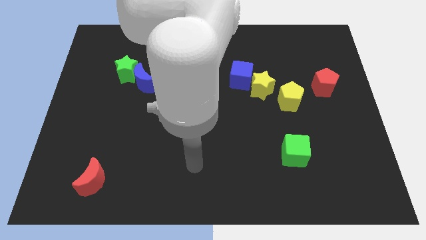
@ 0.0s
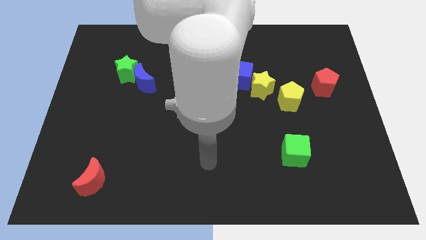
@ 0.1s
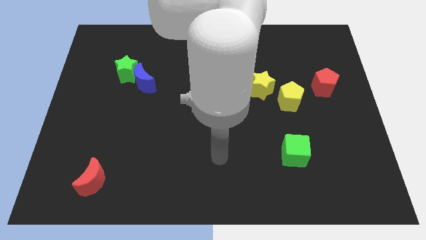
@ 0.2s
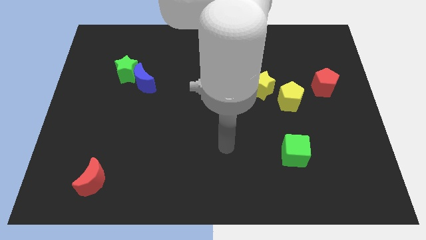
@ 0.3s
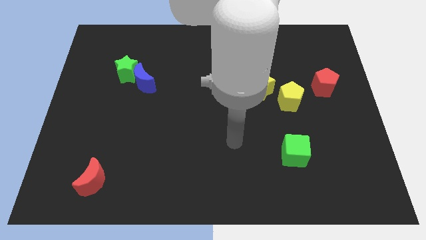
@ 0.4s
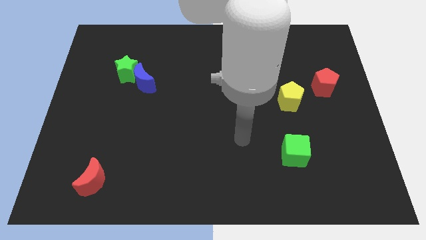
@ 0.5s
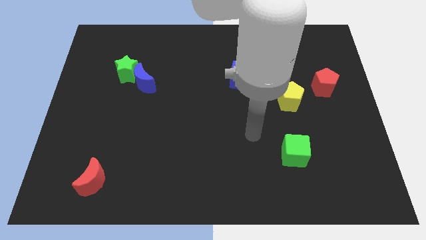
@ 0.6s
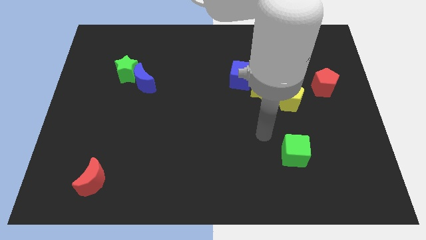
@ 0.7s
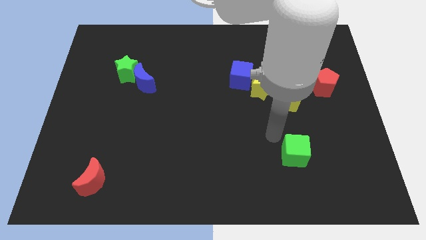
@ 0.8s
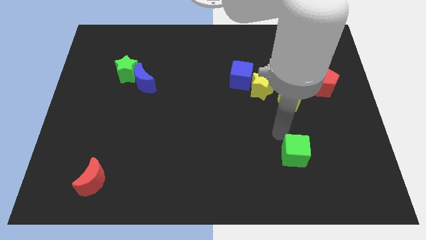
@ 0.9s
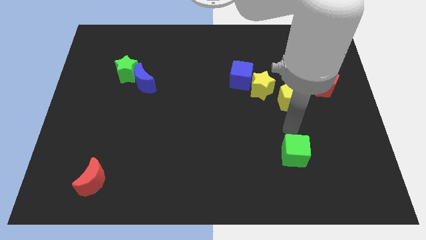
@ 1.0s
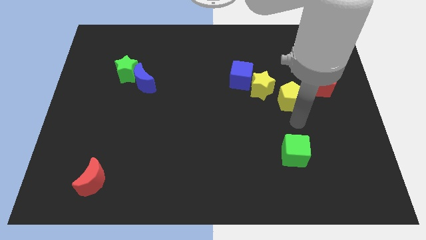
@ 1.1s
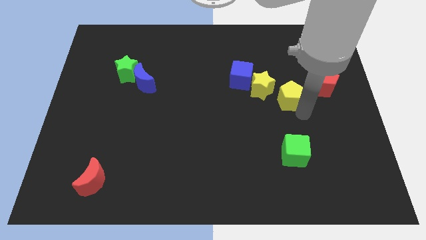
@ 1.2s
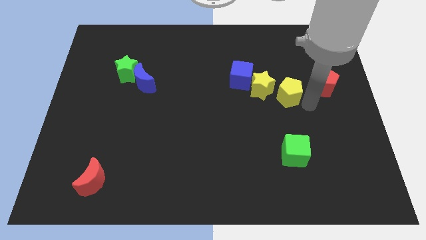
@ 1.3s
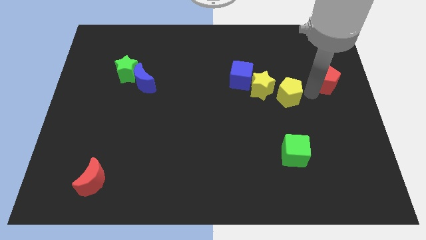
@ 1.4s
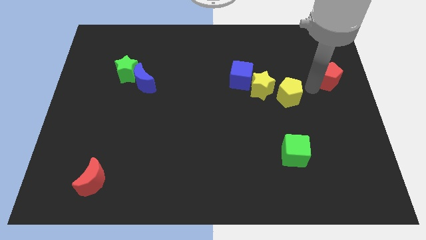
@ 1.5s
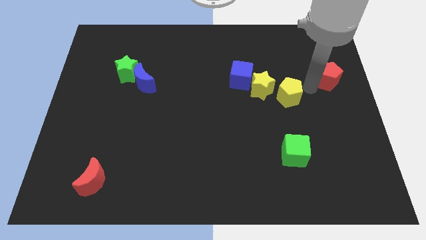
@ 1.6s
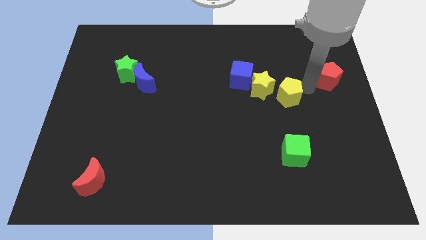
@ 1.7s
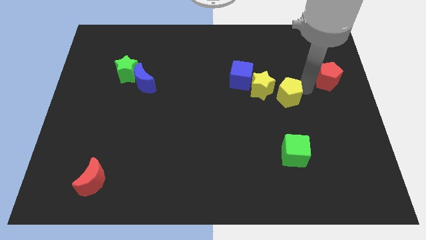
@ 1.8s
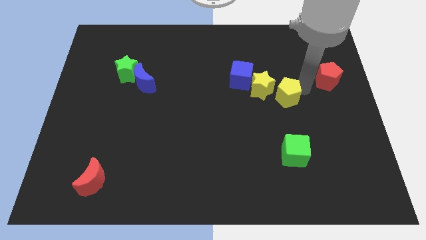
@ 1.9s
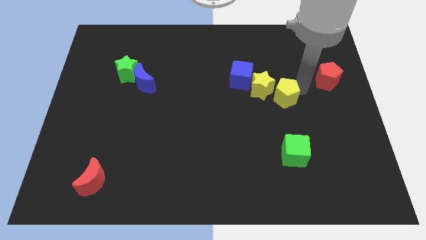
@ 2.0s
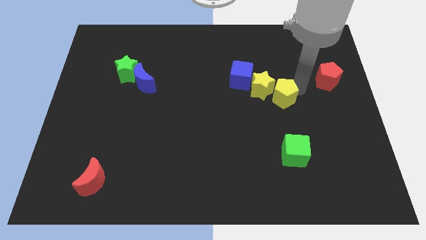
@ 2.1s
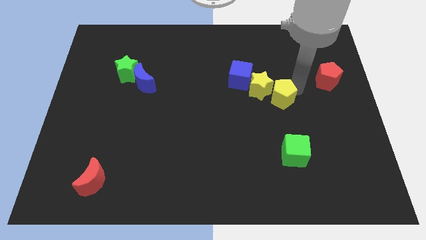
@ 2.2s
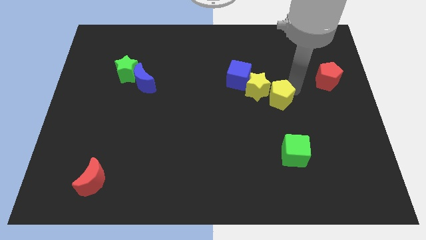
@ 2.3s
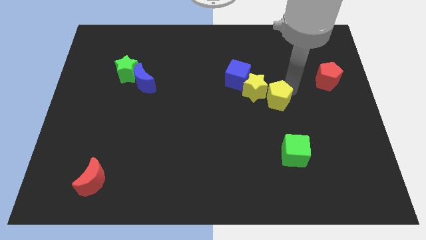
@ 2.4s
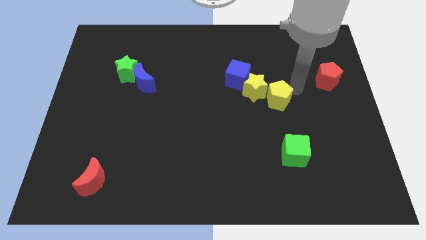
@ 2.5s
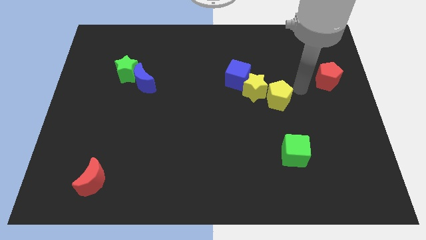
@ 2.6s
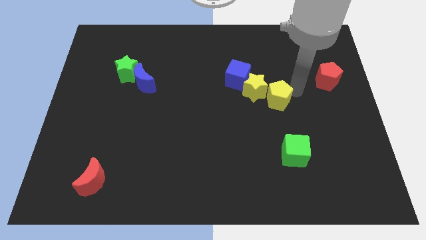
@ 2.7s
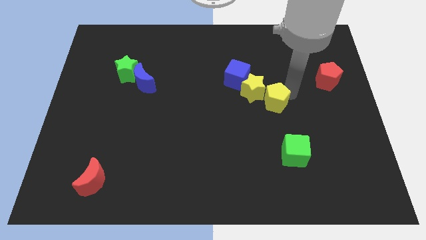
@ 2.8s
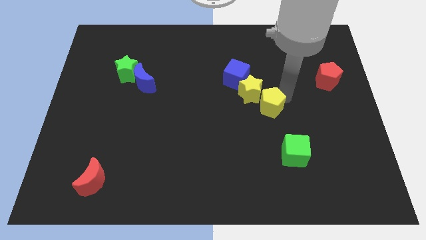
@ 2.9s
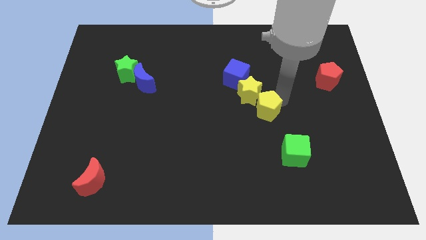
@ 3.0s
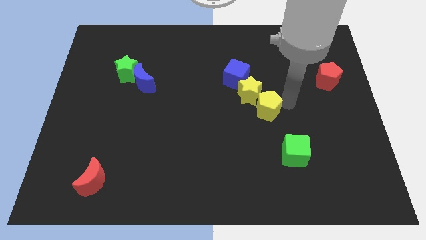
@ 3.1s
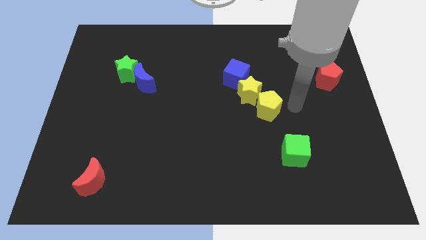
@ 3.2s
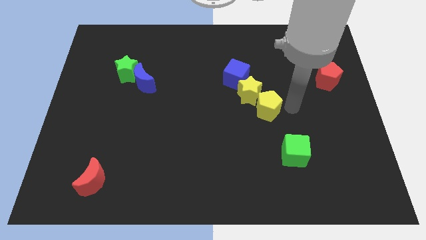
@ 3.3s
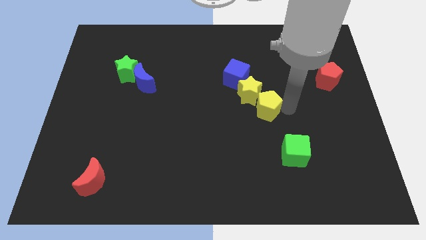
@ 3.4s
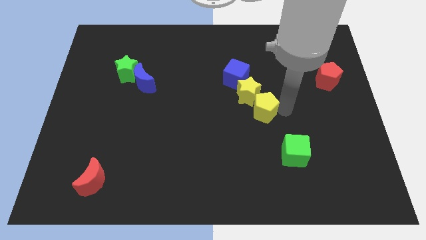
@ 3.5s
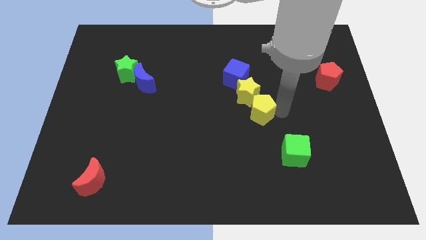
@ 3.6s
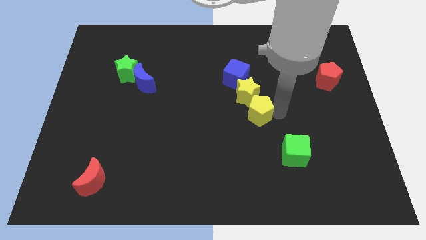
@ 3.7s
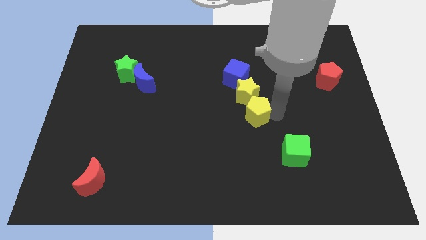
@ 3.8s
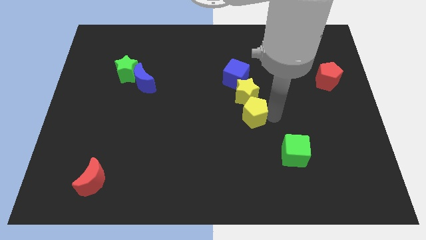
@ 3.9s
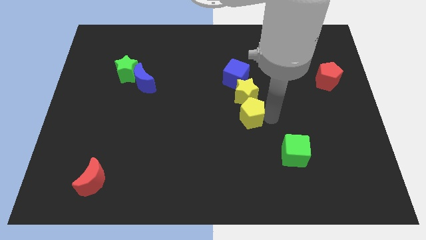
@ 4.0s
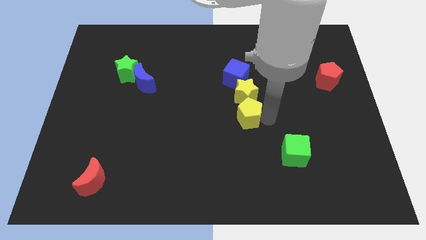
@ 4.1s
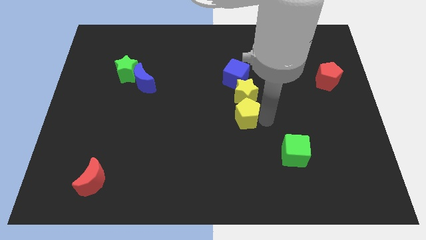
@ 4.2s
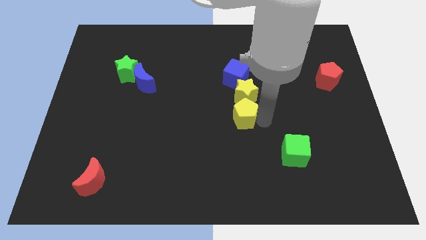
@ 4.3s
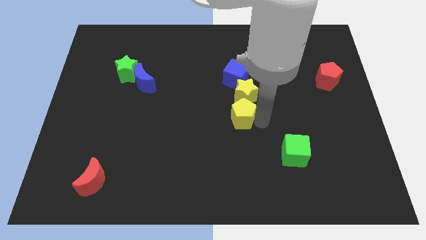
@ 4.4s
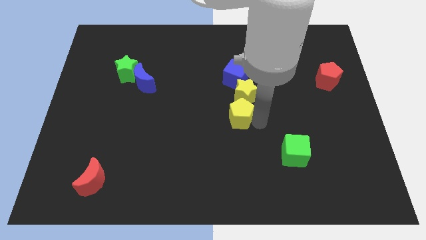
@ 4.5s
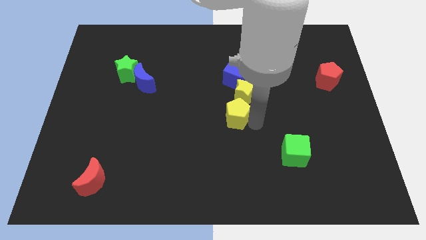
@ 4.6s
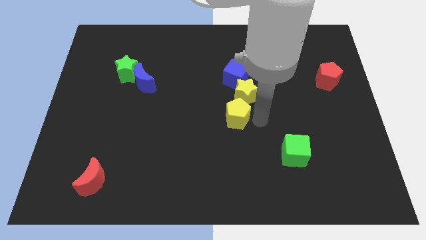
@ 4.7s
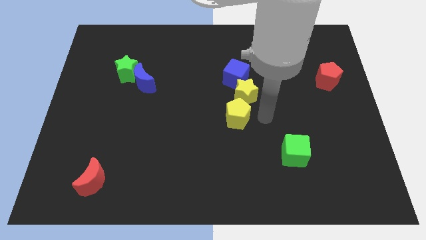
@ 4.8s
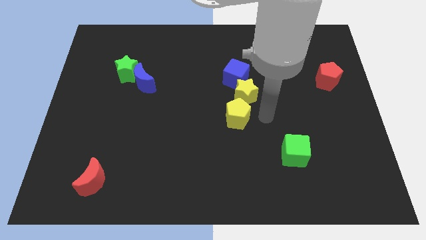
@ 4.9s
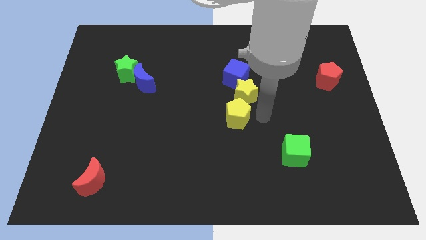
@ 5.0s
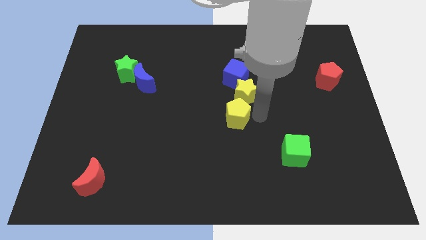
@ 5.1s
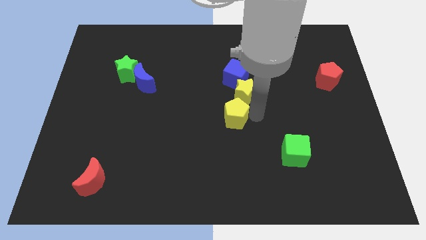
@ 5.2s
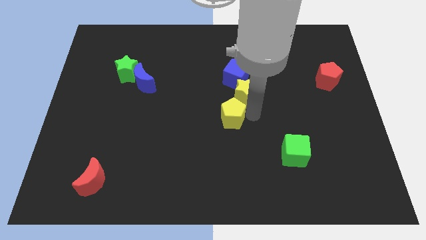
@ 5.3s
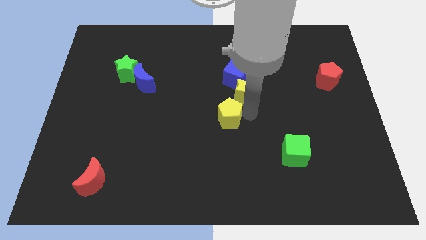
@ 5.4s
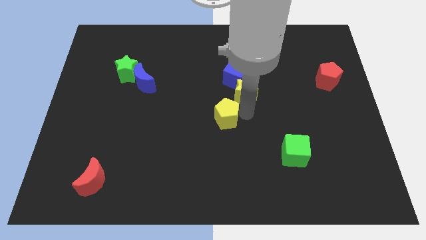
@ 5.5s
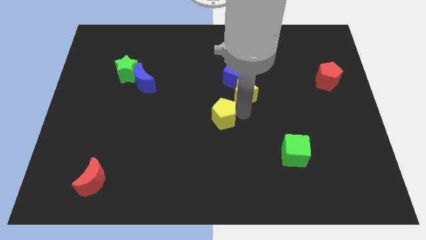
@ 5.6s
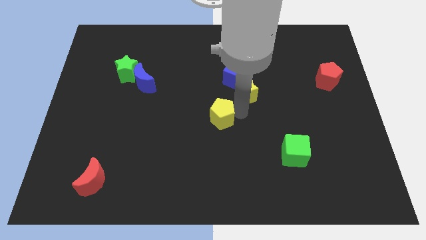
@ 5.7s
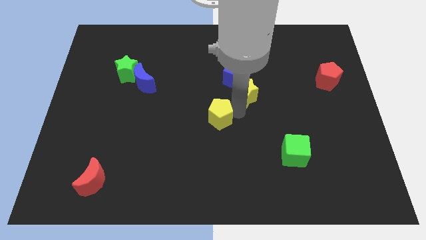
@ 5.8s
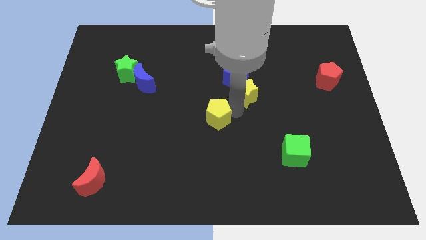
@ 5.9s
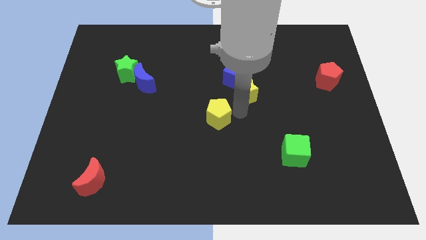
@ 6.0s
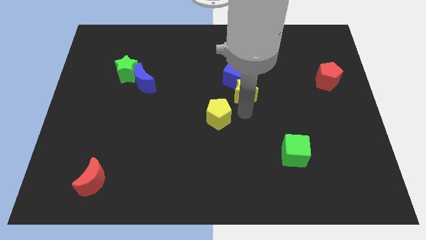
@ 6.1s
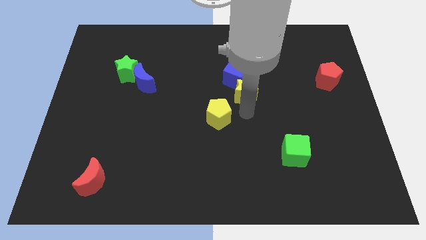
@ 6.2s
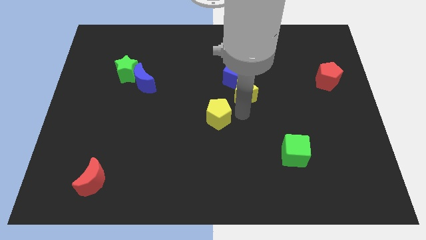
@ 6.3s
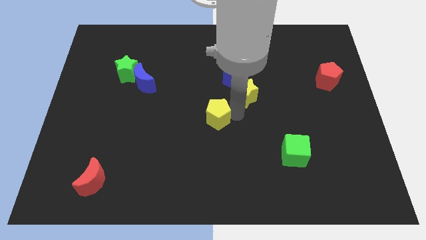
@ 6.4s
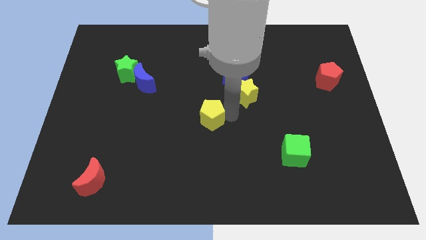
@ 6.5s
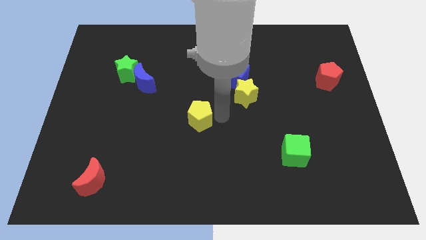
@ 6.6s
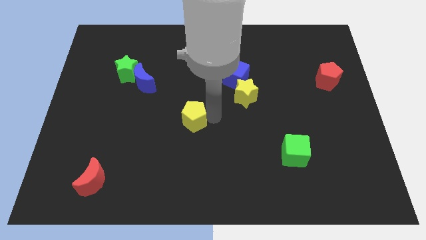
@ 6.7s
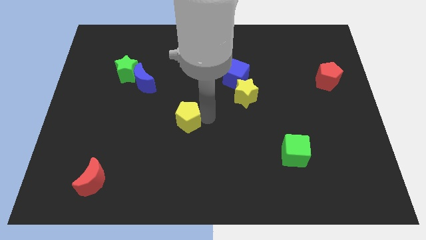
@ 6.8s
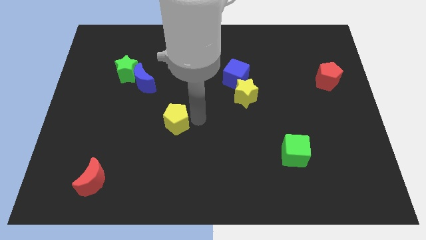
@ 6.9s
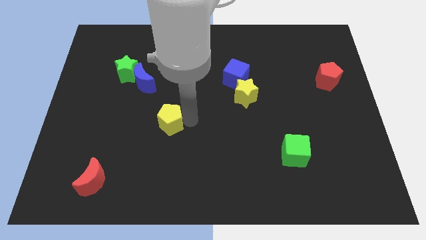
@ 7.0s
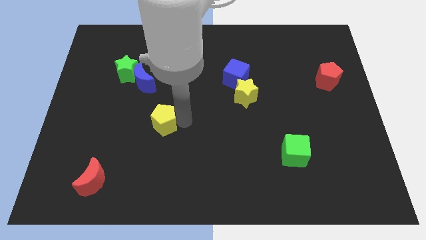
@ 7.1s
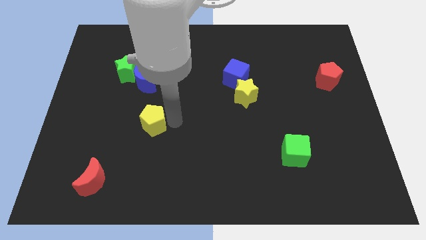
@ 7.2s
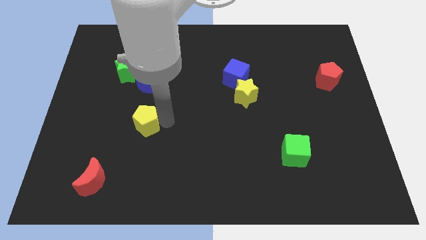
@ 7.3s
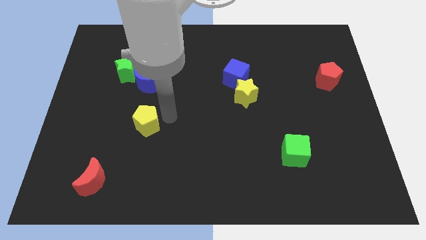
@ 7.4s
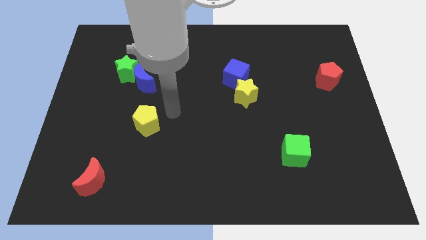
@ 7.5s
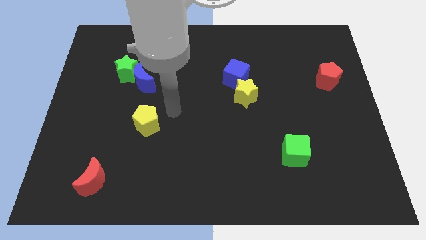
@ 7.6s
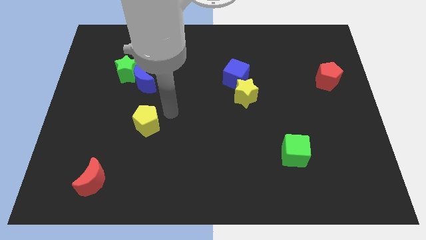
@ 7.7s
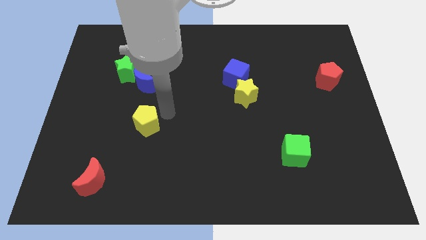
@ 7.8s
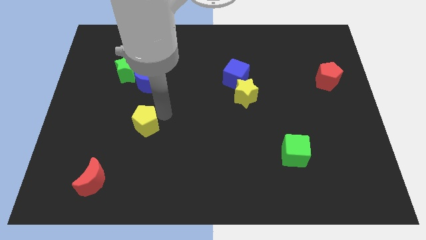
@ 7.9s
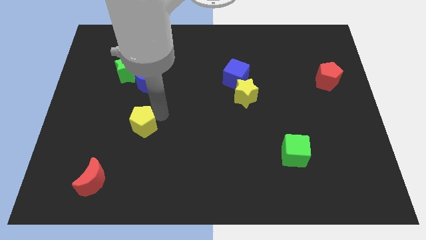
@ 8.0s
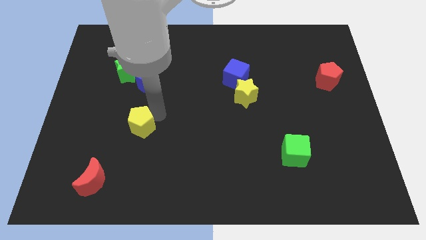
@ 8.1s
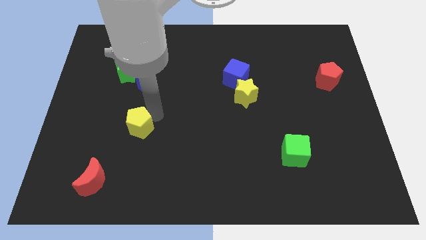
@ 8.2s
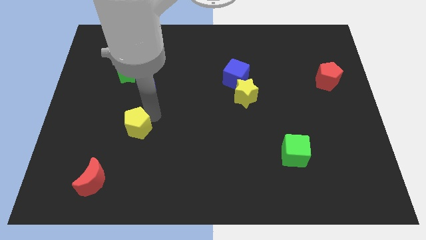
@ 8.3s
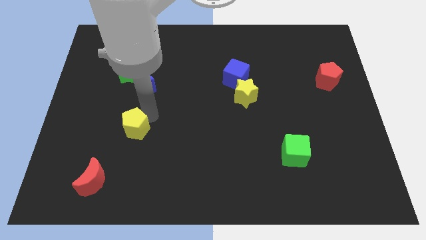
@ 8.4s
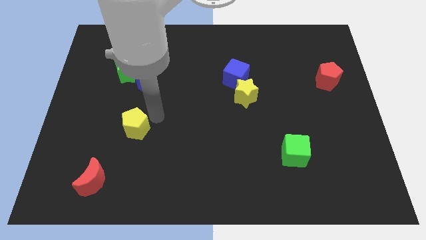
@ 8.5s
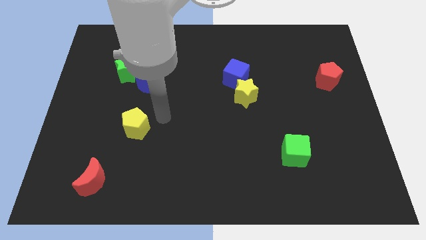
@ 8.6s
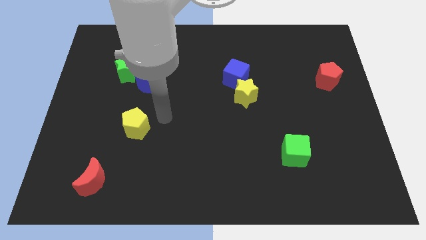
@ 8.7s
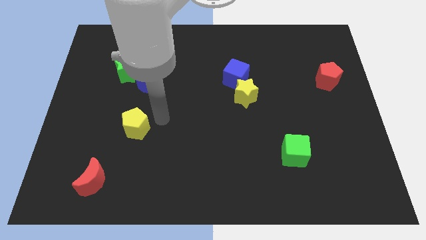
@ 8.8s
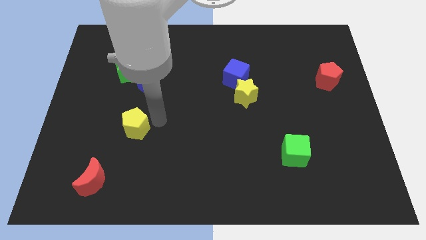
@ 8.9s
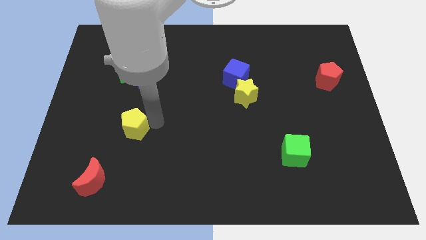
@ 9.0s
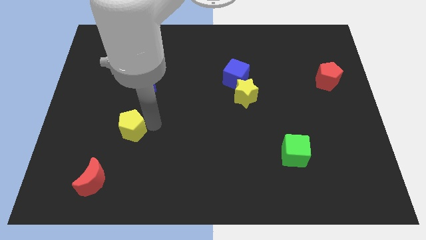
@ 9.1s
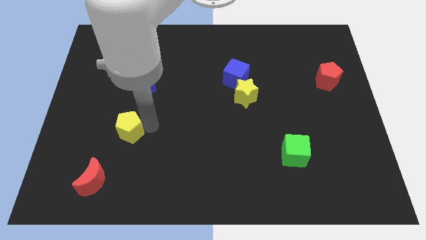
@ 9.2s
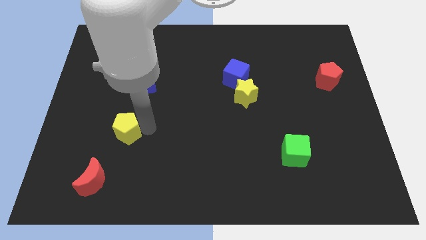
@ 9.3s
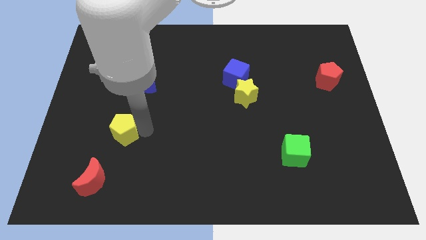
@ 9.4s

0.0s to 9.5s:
put the yellow pentagon above the red moon
